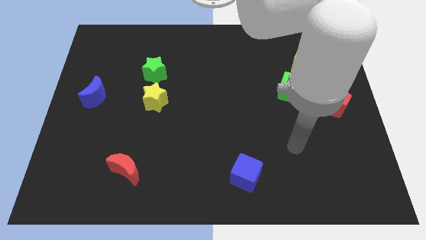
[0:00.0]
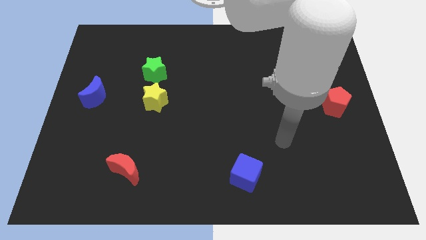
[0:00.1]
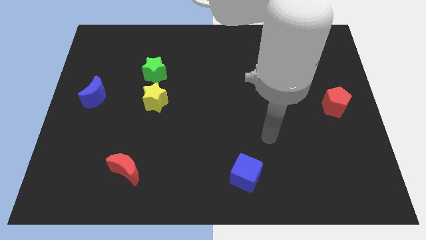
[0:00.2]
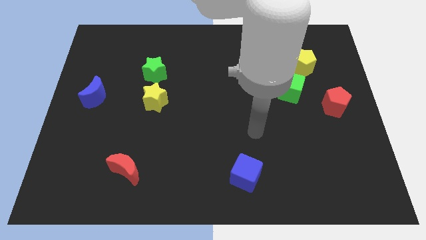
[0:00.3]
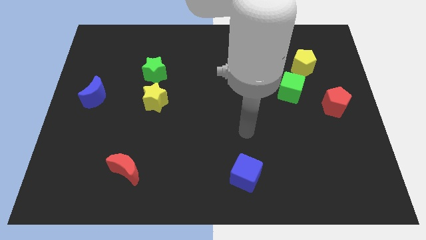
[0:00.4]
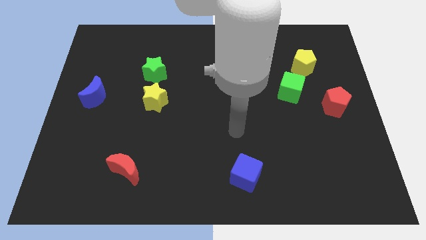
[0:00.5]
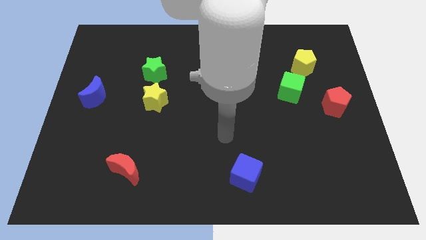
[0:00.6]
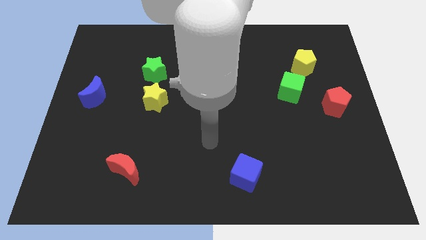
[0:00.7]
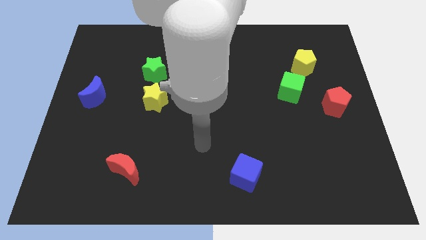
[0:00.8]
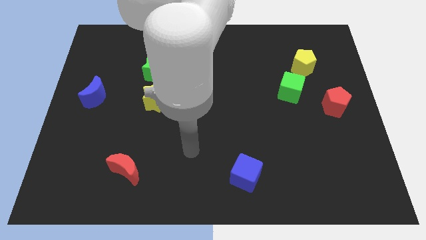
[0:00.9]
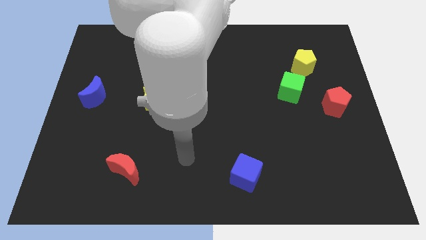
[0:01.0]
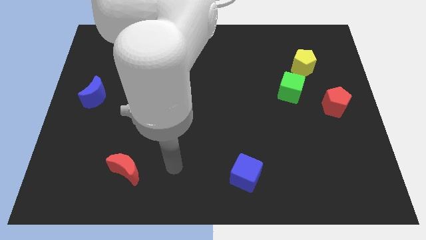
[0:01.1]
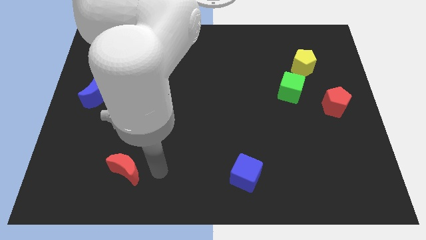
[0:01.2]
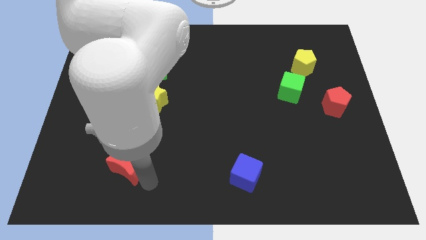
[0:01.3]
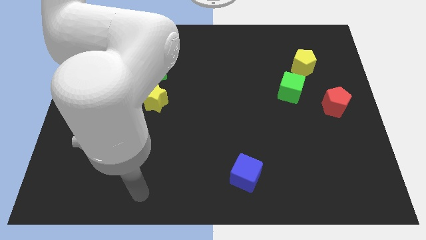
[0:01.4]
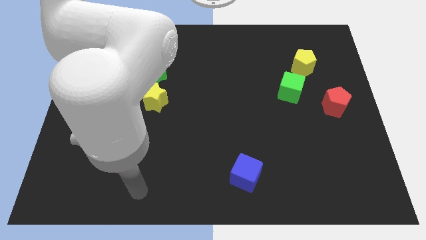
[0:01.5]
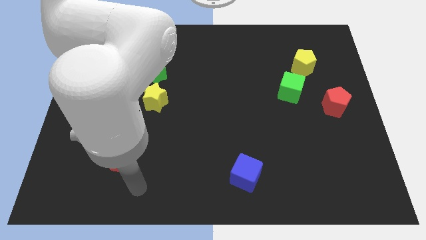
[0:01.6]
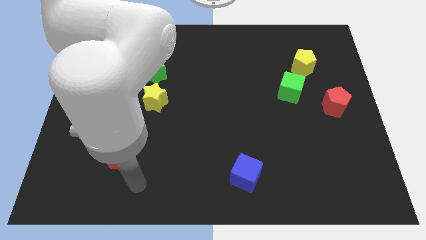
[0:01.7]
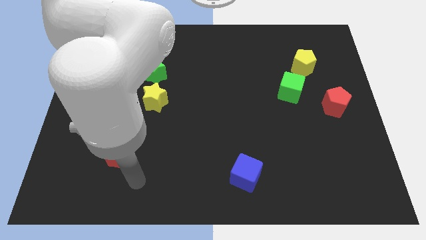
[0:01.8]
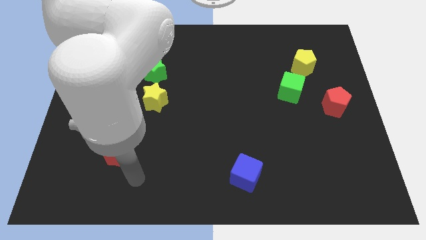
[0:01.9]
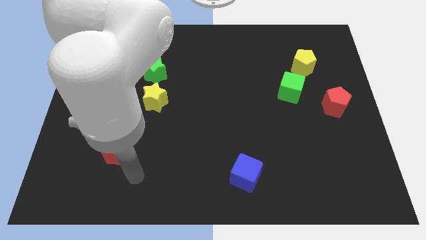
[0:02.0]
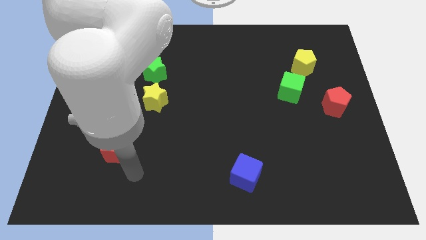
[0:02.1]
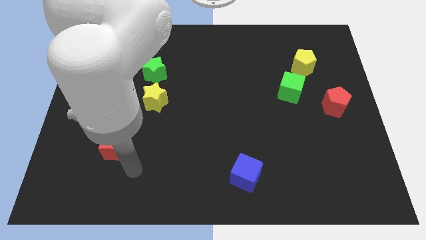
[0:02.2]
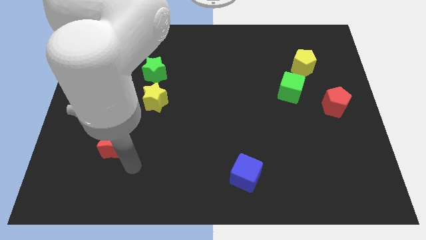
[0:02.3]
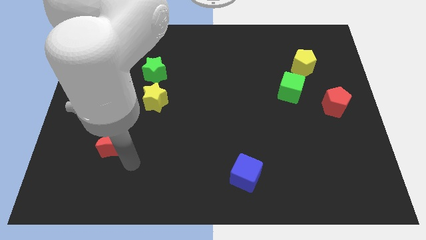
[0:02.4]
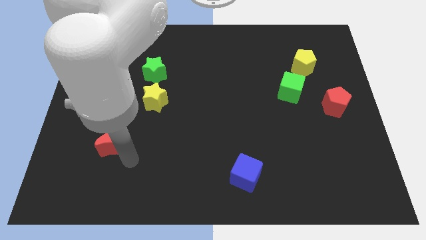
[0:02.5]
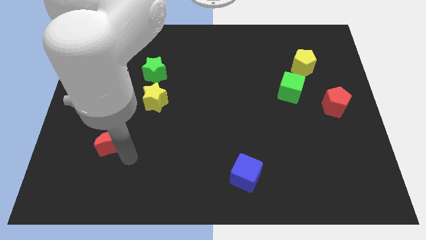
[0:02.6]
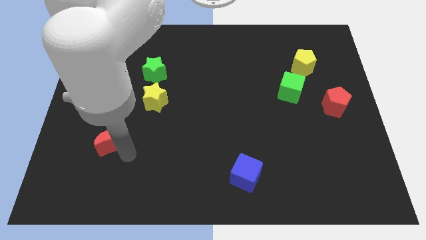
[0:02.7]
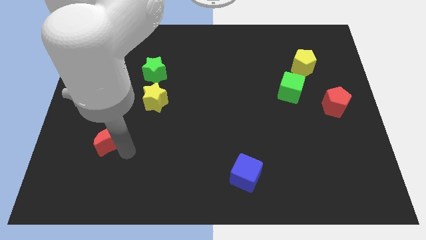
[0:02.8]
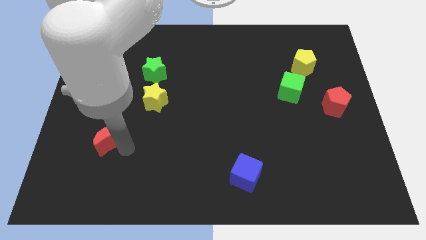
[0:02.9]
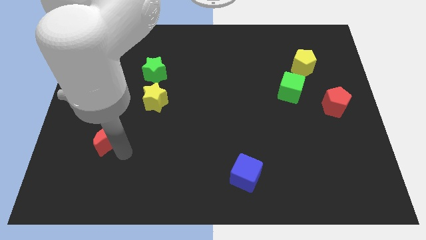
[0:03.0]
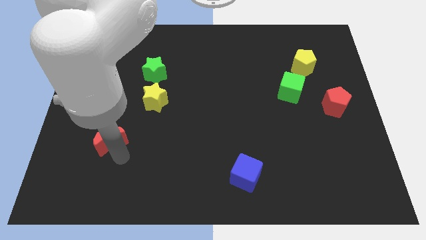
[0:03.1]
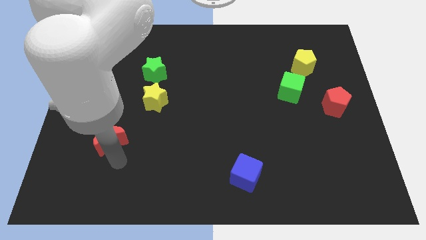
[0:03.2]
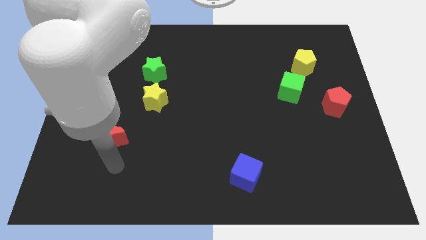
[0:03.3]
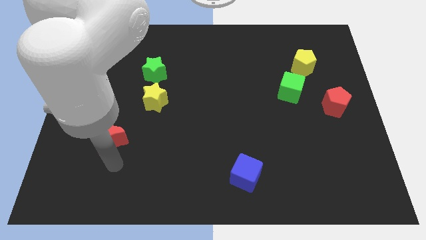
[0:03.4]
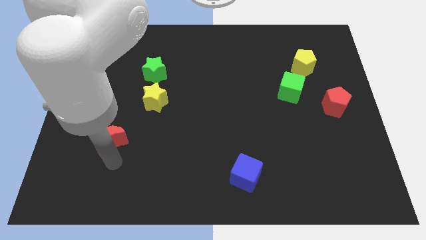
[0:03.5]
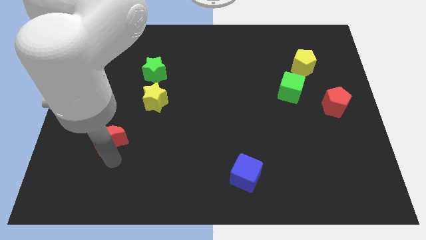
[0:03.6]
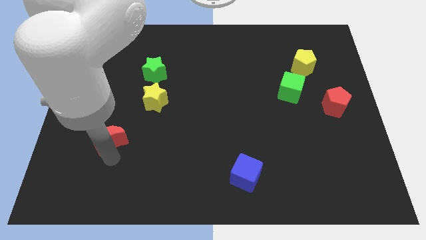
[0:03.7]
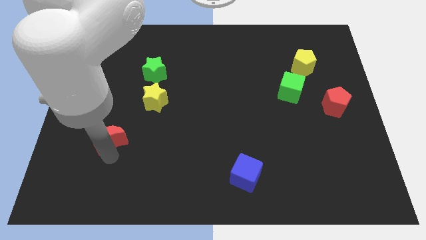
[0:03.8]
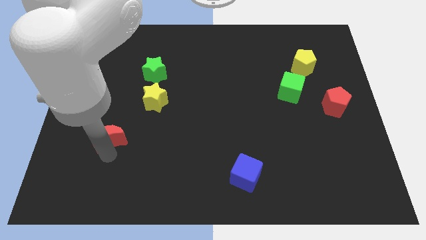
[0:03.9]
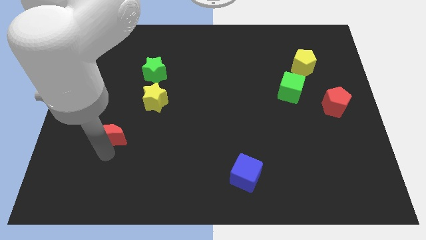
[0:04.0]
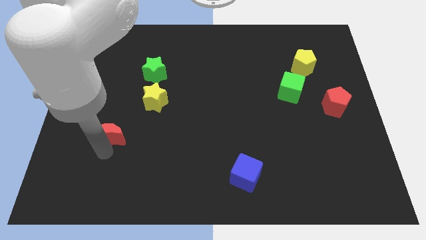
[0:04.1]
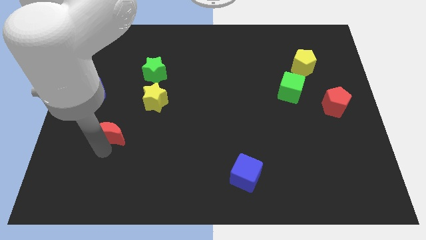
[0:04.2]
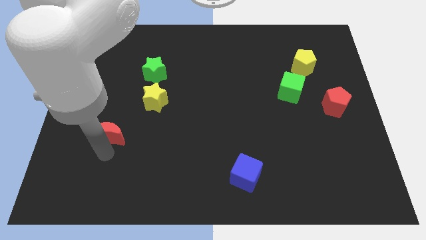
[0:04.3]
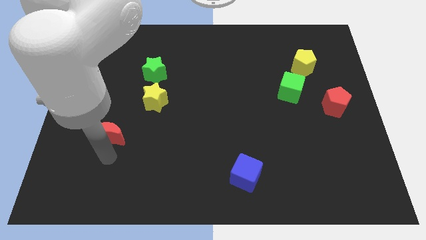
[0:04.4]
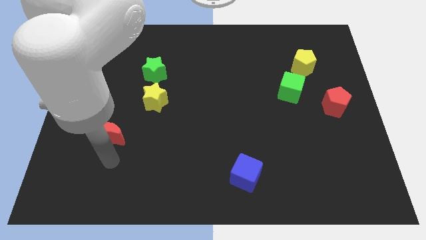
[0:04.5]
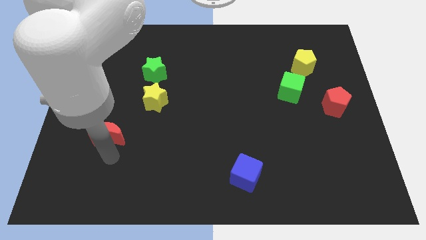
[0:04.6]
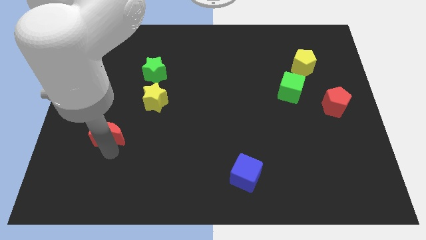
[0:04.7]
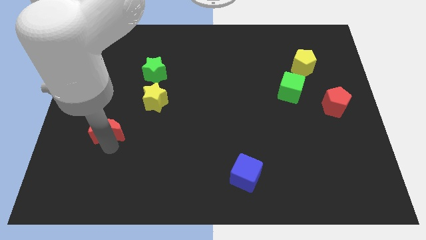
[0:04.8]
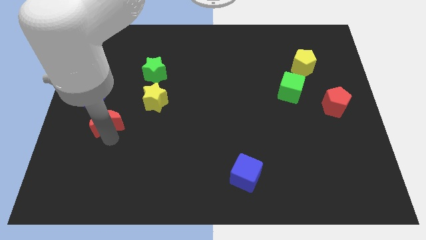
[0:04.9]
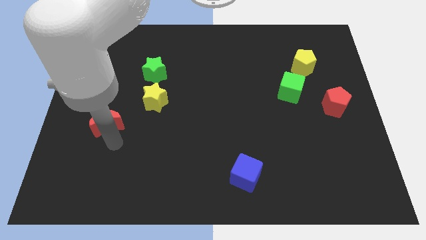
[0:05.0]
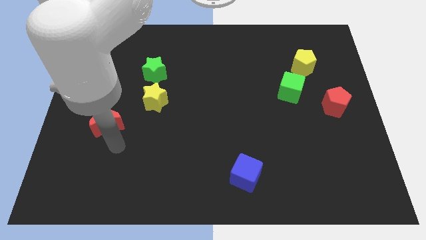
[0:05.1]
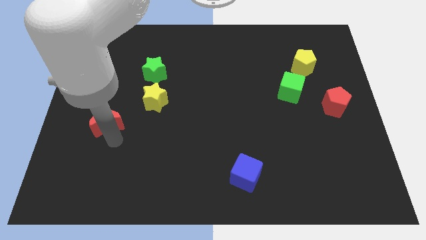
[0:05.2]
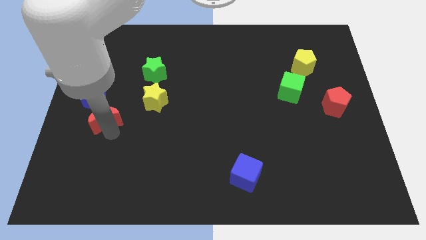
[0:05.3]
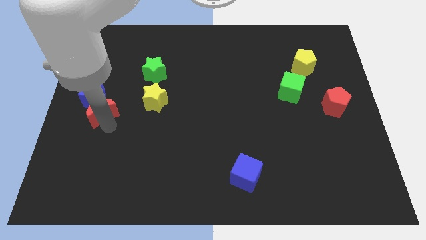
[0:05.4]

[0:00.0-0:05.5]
push the red moon close to the blue moon

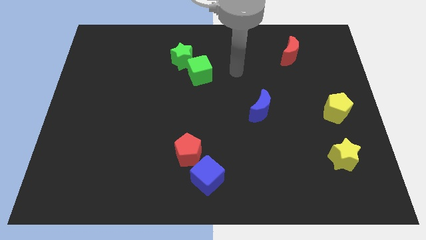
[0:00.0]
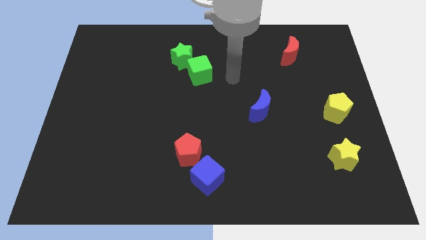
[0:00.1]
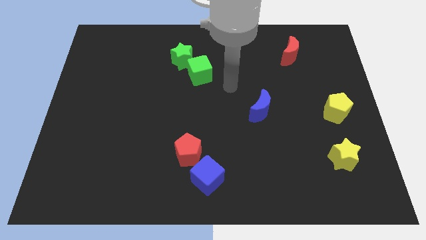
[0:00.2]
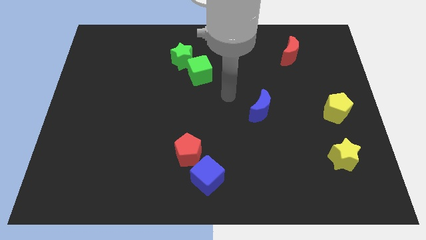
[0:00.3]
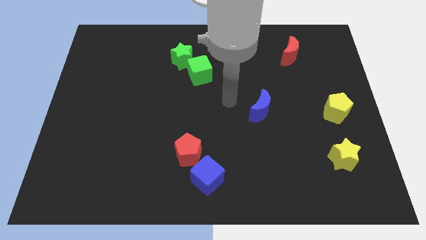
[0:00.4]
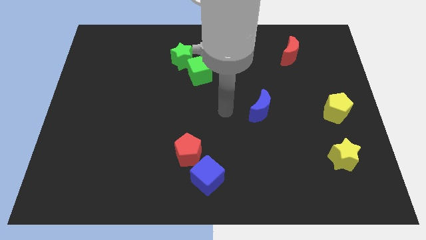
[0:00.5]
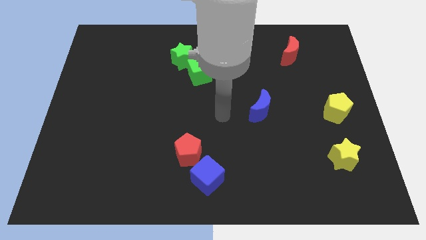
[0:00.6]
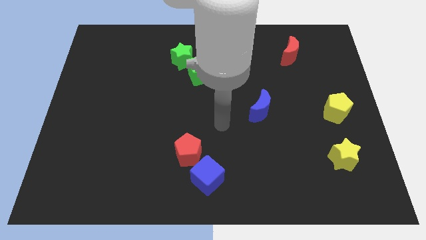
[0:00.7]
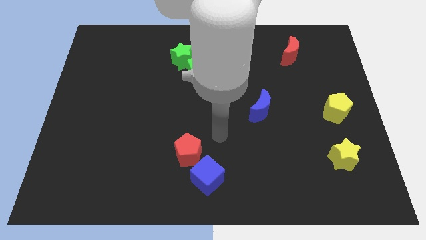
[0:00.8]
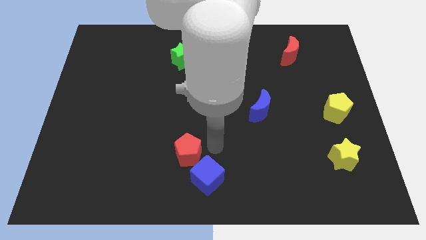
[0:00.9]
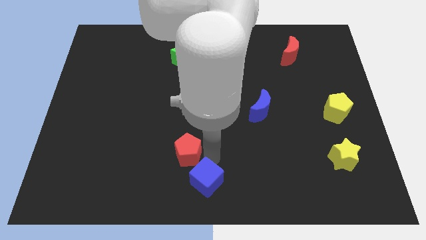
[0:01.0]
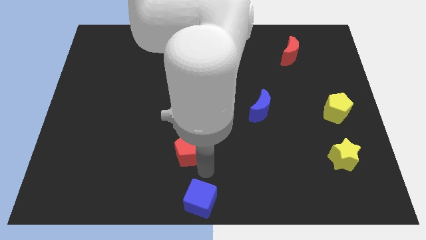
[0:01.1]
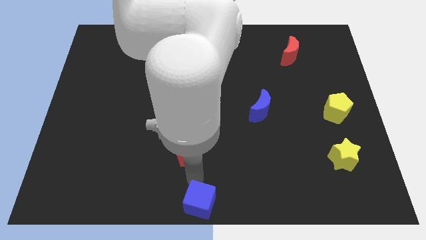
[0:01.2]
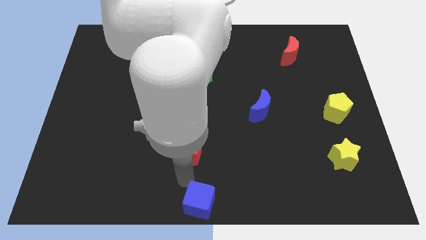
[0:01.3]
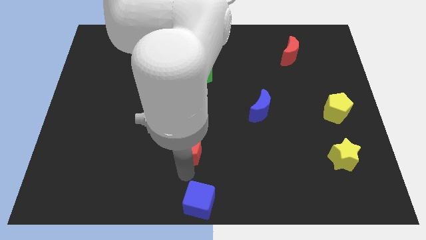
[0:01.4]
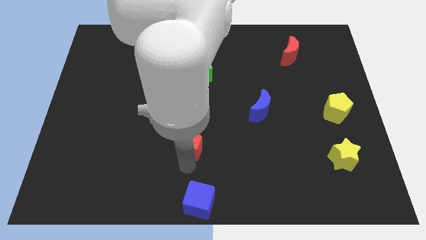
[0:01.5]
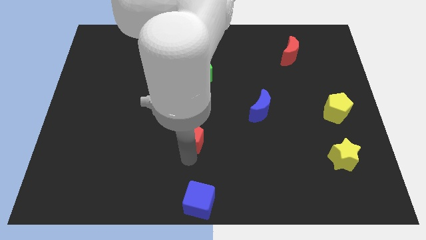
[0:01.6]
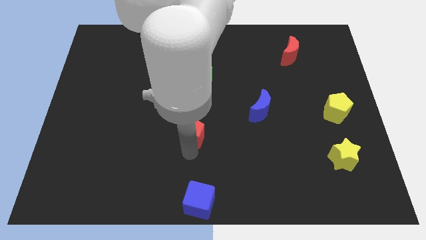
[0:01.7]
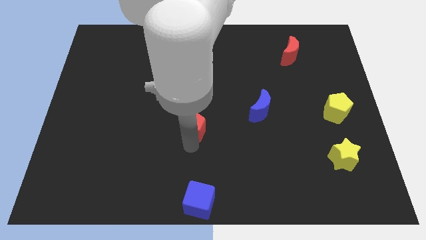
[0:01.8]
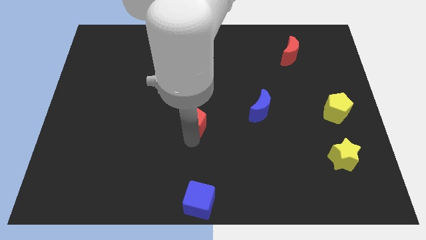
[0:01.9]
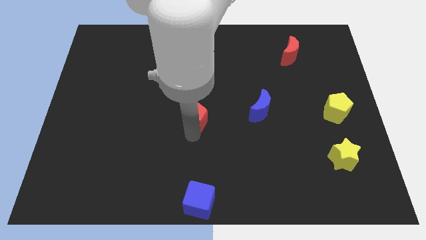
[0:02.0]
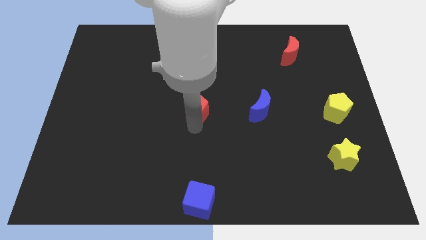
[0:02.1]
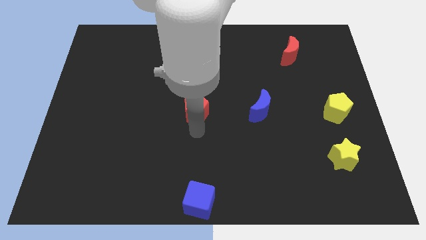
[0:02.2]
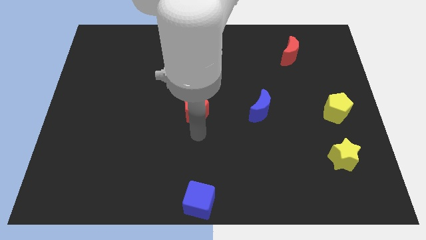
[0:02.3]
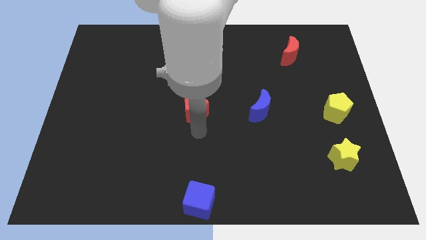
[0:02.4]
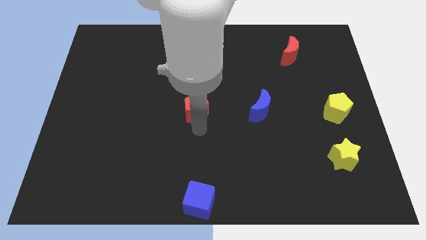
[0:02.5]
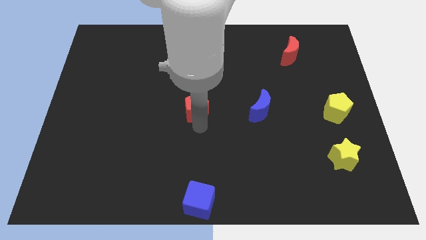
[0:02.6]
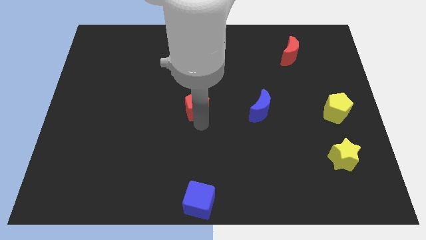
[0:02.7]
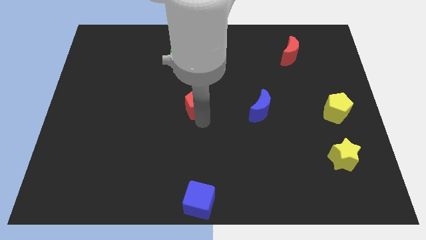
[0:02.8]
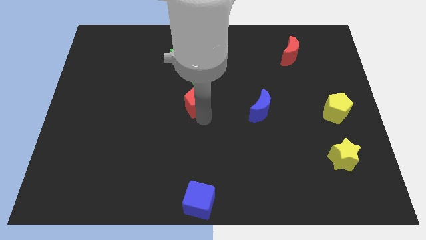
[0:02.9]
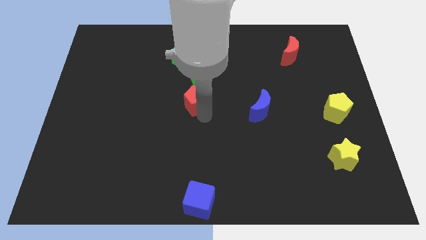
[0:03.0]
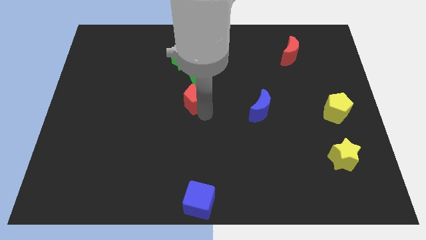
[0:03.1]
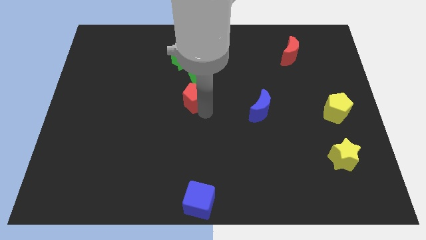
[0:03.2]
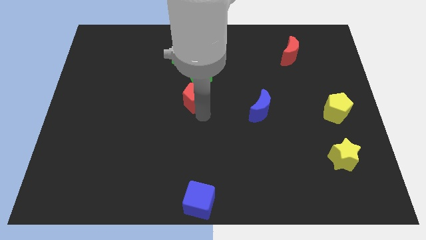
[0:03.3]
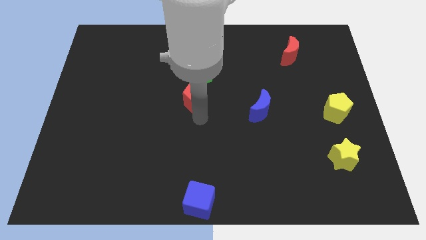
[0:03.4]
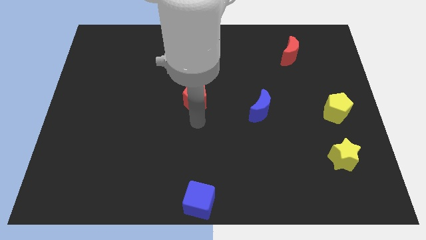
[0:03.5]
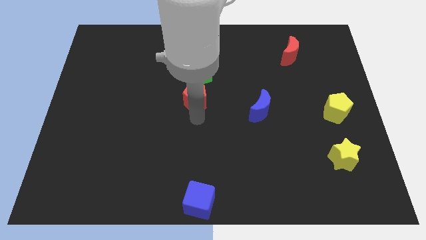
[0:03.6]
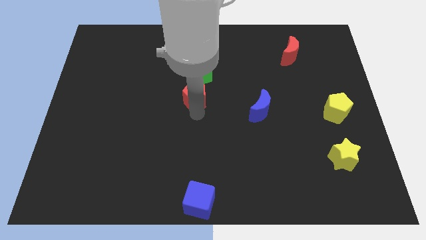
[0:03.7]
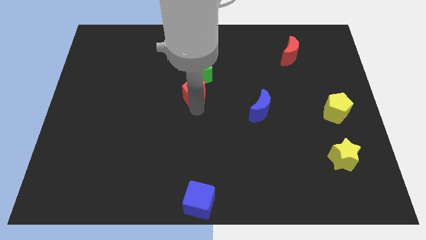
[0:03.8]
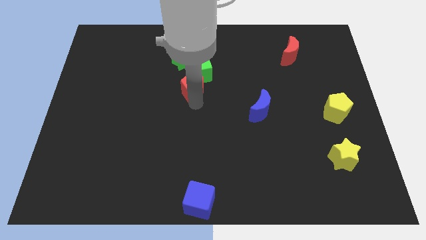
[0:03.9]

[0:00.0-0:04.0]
move the red pentagon next to the green cube
